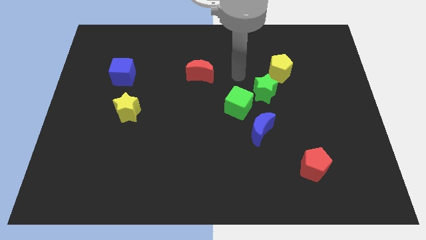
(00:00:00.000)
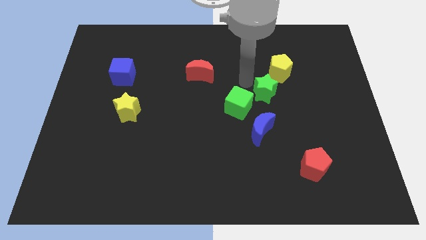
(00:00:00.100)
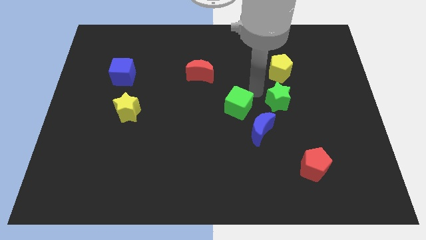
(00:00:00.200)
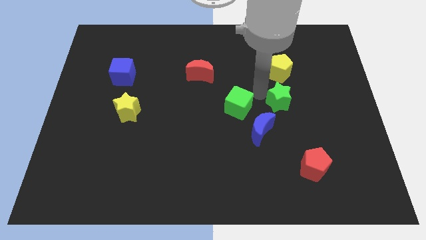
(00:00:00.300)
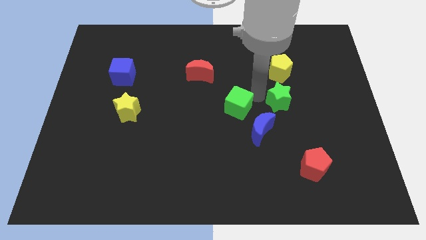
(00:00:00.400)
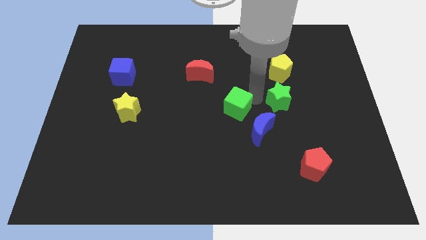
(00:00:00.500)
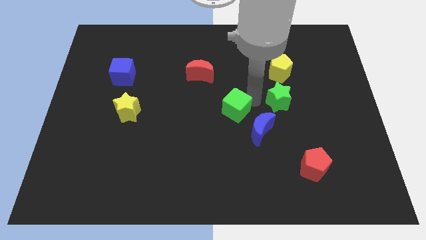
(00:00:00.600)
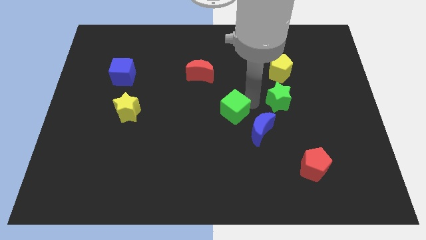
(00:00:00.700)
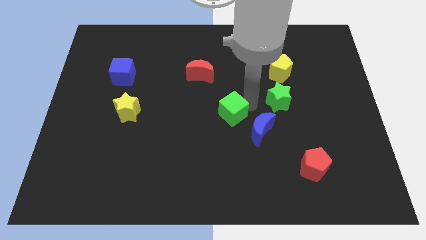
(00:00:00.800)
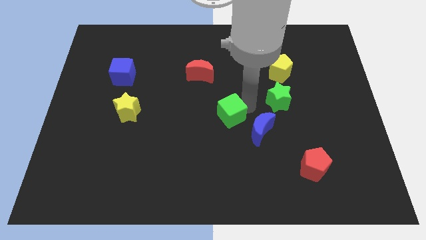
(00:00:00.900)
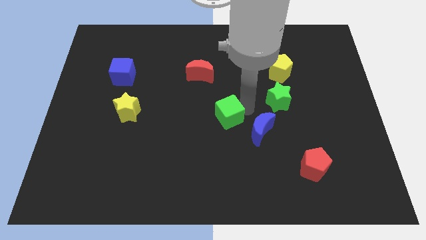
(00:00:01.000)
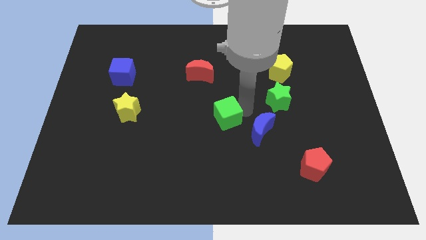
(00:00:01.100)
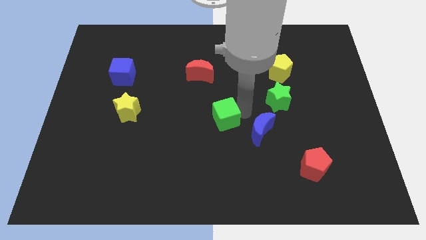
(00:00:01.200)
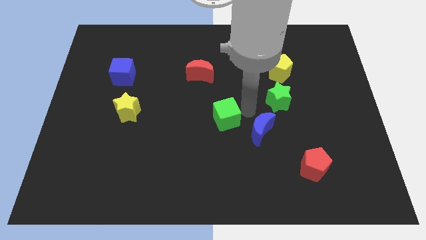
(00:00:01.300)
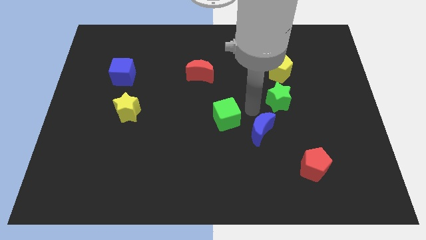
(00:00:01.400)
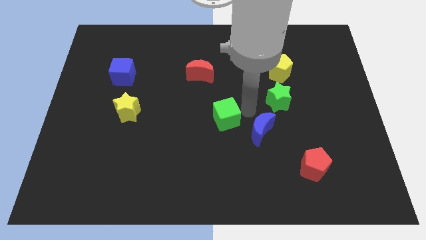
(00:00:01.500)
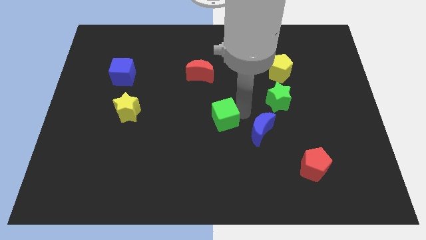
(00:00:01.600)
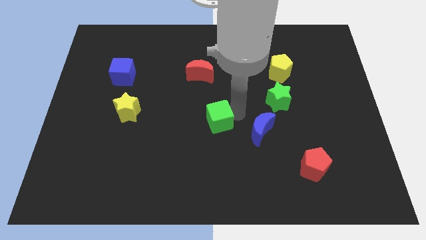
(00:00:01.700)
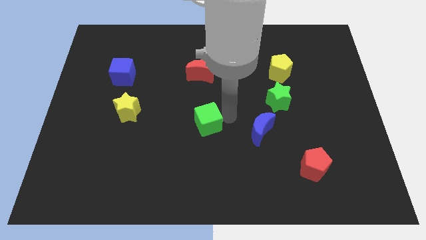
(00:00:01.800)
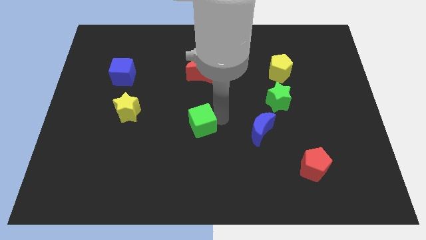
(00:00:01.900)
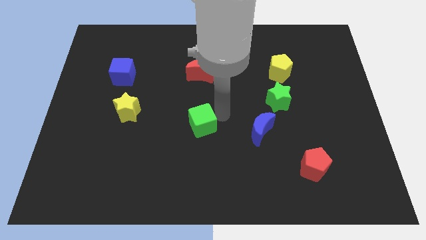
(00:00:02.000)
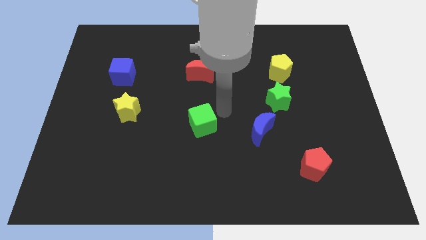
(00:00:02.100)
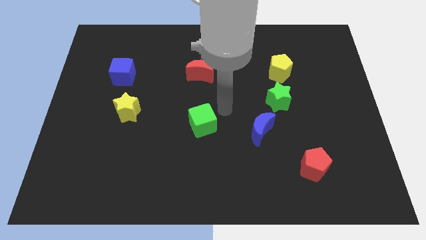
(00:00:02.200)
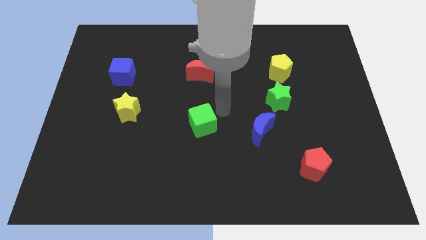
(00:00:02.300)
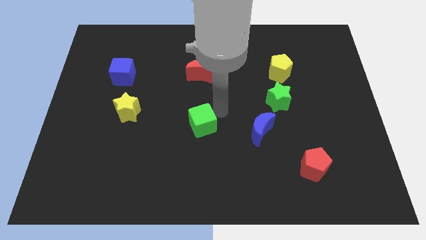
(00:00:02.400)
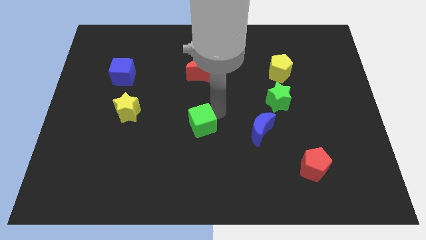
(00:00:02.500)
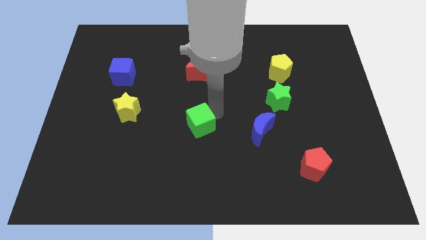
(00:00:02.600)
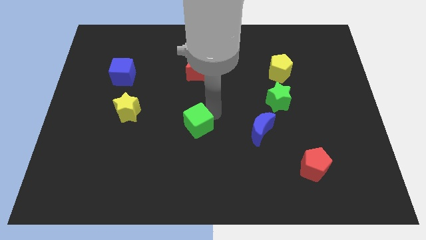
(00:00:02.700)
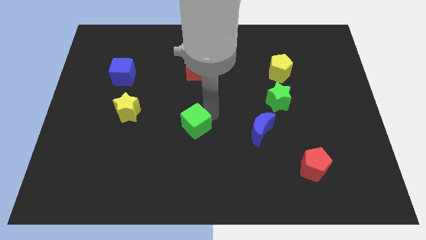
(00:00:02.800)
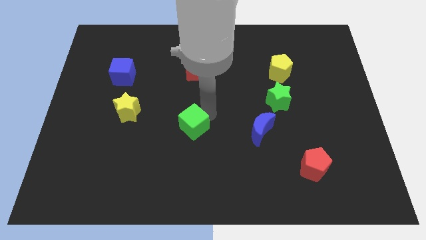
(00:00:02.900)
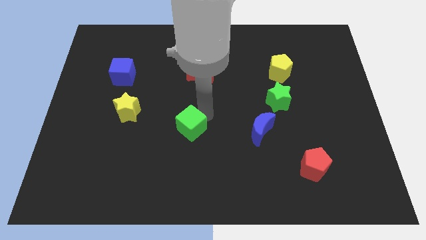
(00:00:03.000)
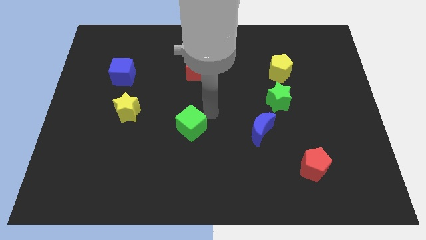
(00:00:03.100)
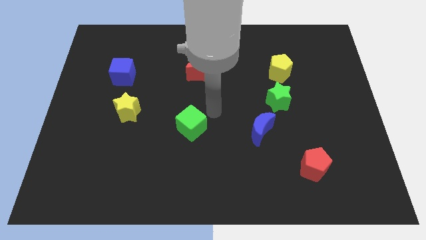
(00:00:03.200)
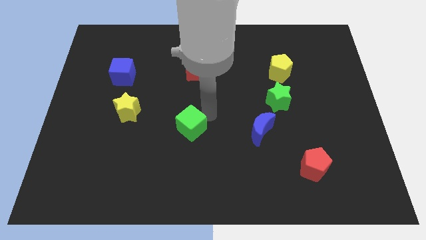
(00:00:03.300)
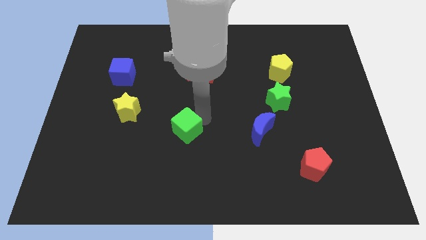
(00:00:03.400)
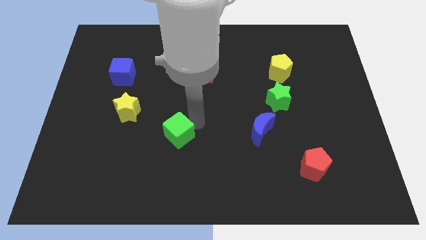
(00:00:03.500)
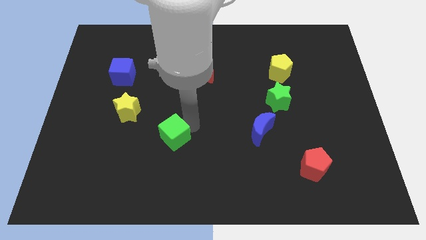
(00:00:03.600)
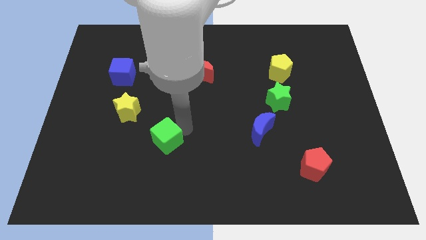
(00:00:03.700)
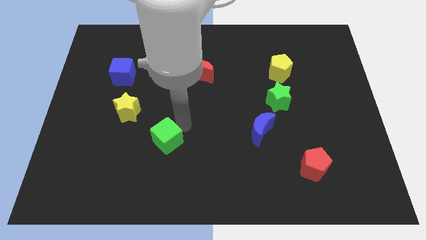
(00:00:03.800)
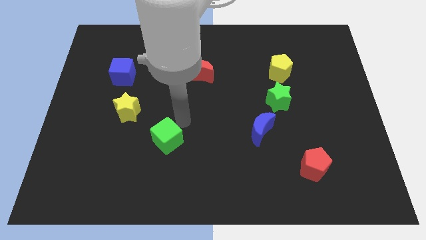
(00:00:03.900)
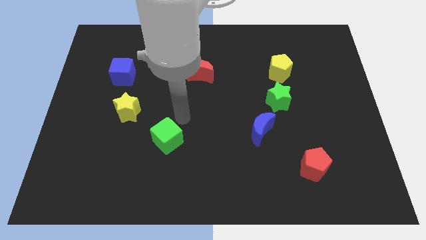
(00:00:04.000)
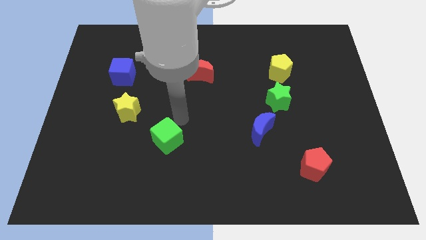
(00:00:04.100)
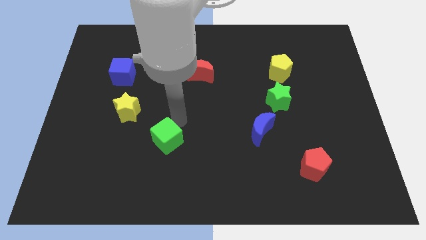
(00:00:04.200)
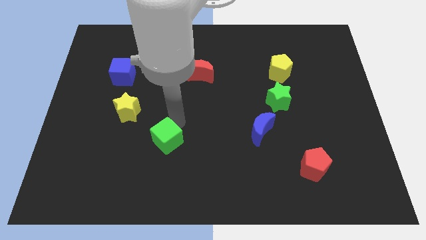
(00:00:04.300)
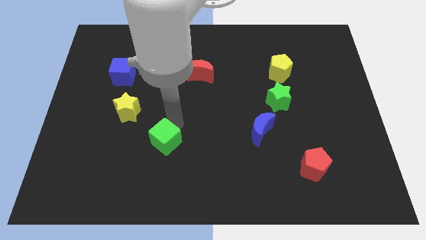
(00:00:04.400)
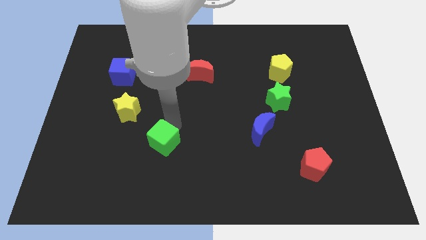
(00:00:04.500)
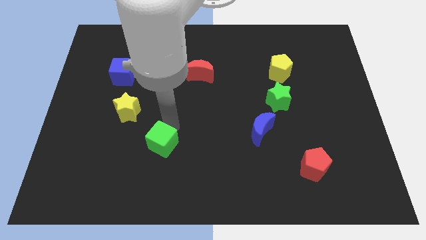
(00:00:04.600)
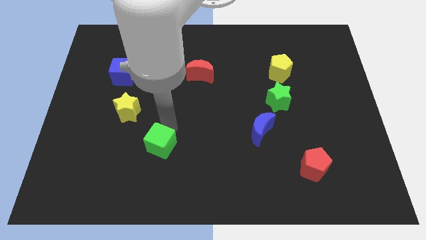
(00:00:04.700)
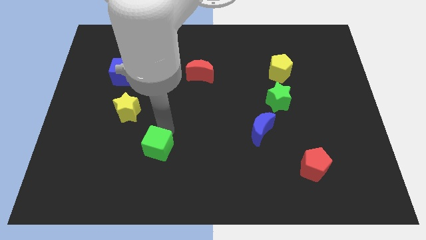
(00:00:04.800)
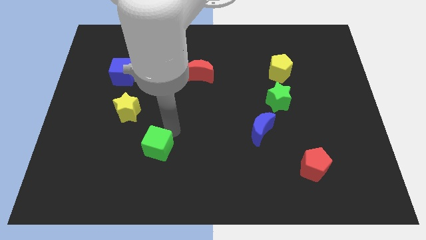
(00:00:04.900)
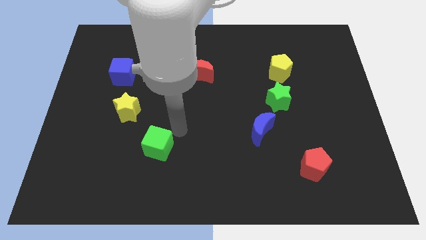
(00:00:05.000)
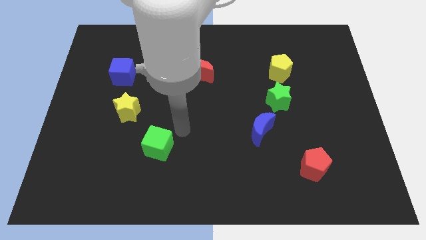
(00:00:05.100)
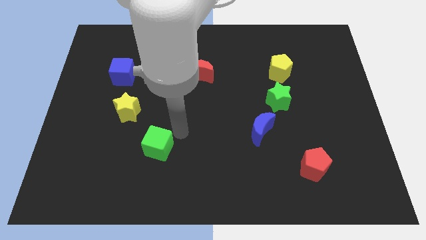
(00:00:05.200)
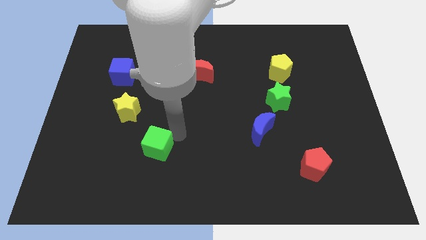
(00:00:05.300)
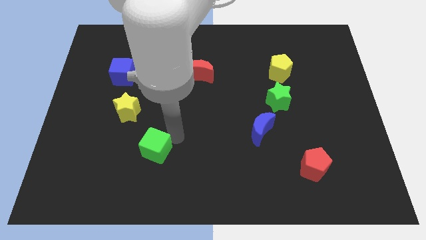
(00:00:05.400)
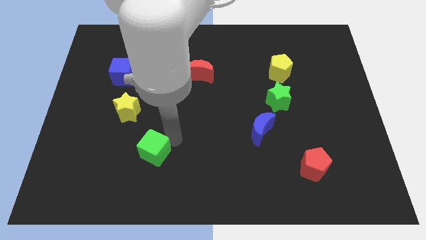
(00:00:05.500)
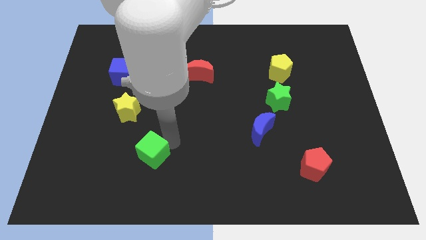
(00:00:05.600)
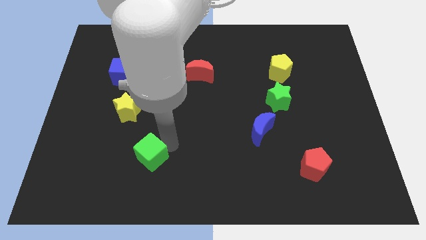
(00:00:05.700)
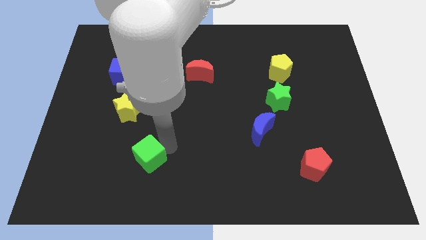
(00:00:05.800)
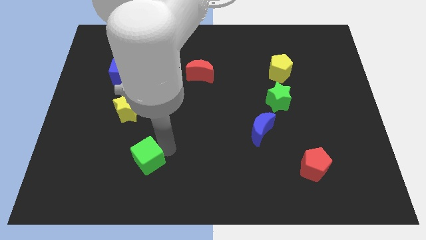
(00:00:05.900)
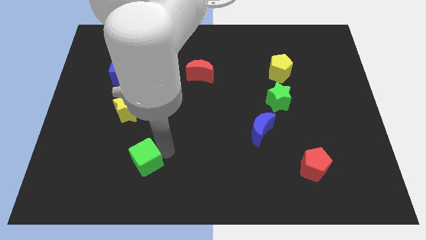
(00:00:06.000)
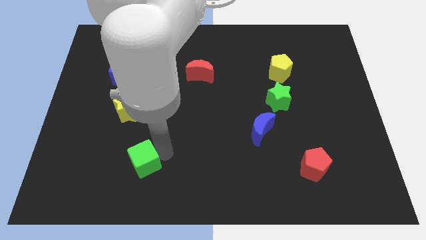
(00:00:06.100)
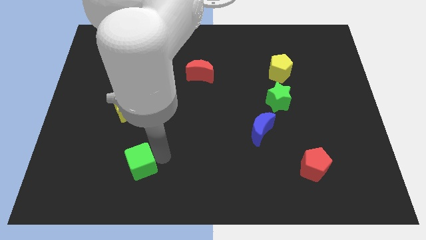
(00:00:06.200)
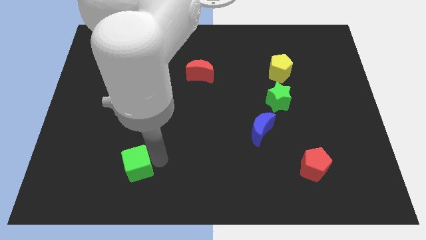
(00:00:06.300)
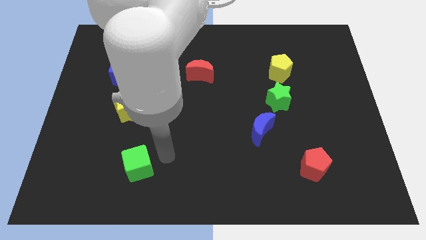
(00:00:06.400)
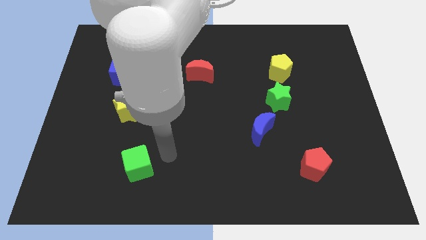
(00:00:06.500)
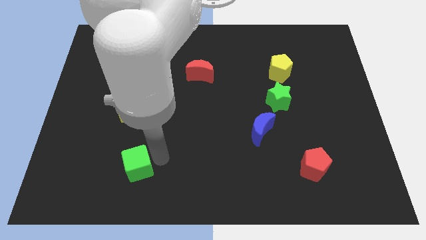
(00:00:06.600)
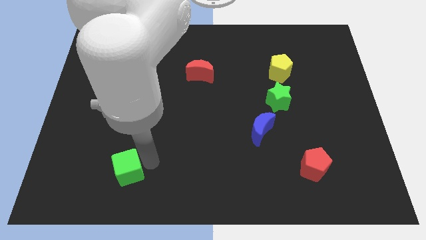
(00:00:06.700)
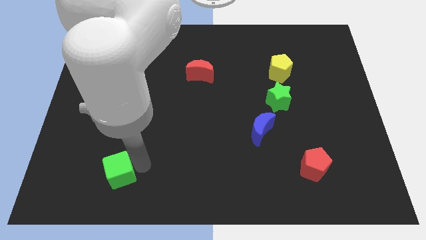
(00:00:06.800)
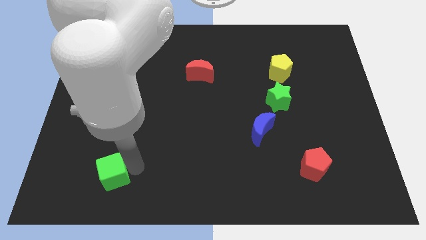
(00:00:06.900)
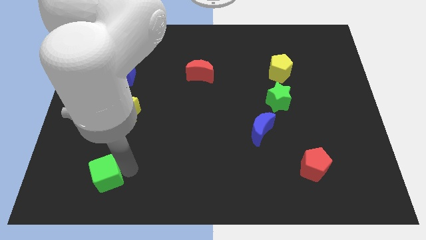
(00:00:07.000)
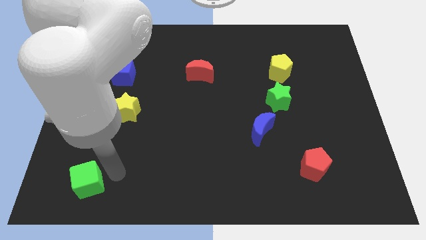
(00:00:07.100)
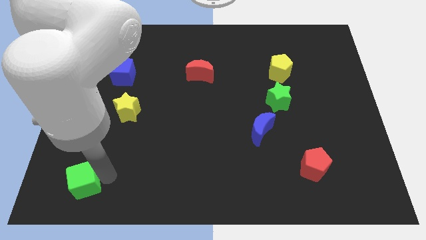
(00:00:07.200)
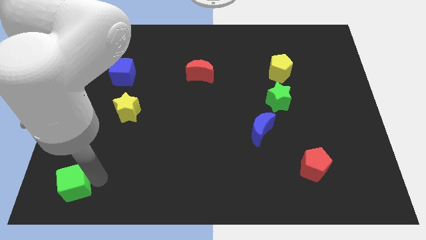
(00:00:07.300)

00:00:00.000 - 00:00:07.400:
put the green cube to the lower left corner
